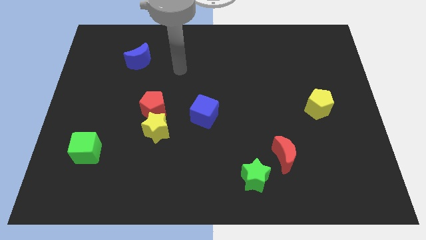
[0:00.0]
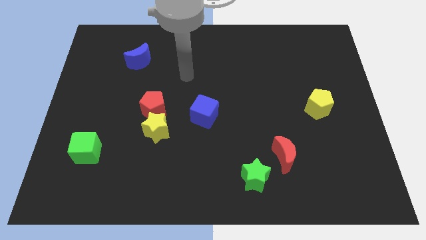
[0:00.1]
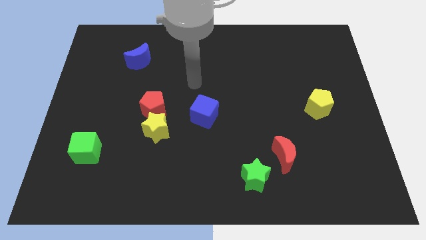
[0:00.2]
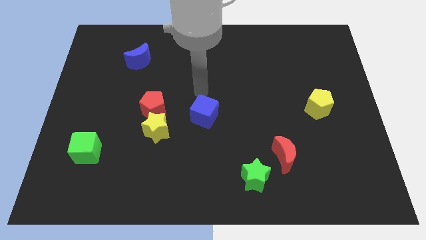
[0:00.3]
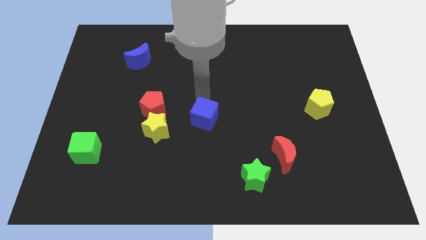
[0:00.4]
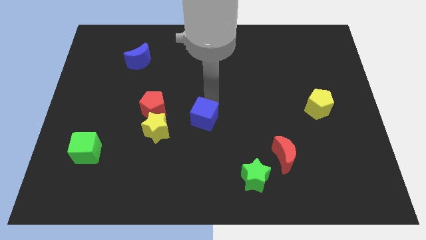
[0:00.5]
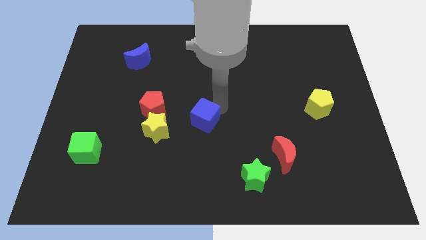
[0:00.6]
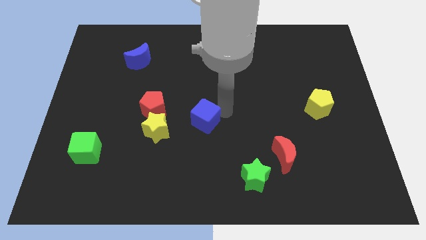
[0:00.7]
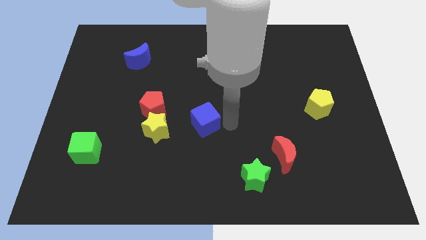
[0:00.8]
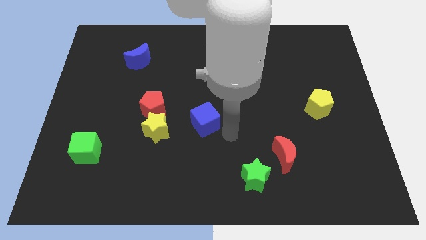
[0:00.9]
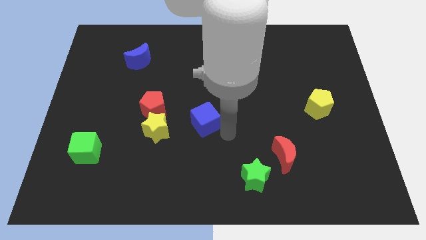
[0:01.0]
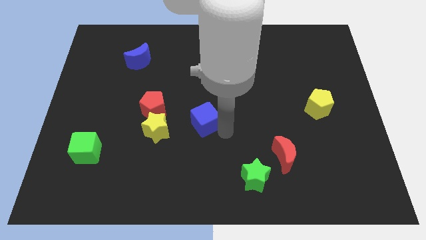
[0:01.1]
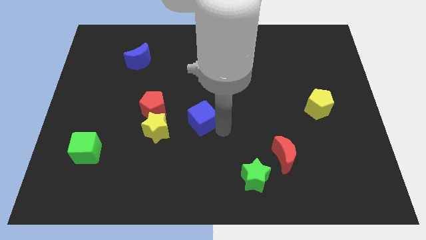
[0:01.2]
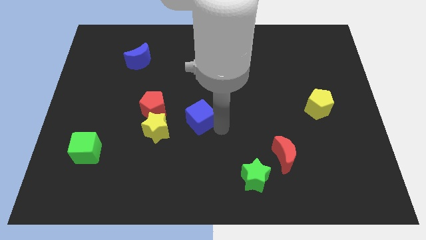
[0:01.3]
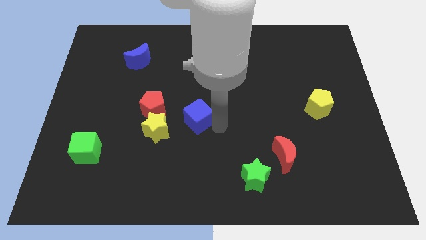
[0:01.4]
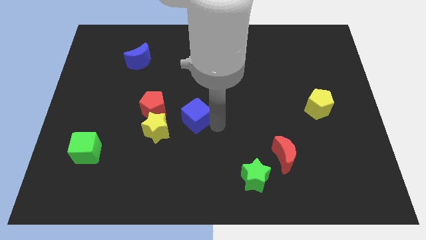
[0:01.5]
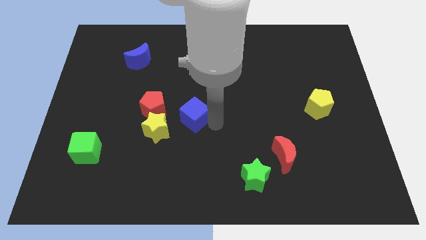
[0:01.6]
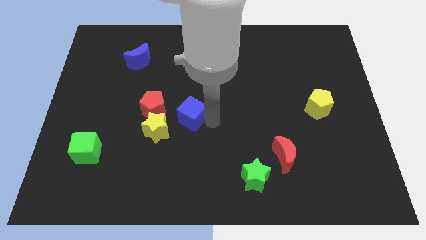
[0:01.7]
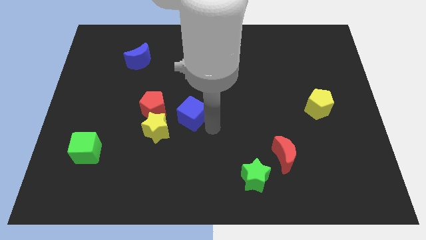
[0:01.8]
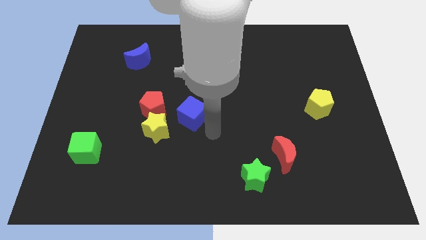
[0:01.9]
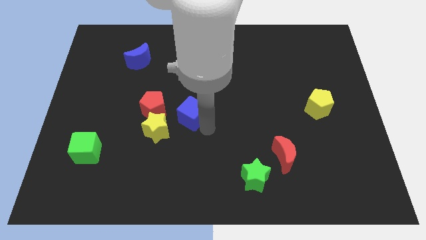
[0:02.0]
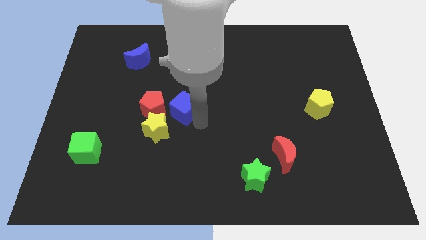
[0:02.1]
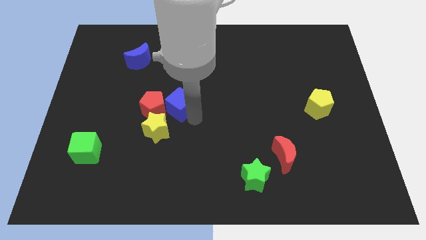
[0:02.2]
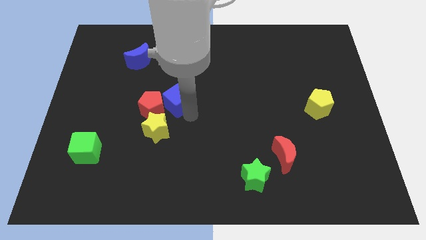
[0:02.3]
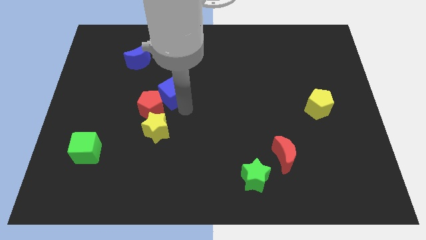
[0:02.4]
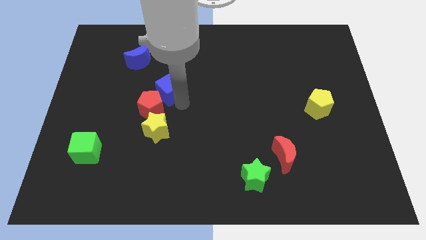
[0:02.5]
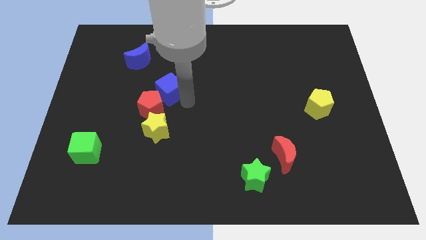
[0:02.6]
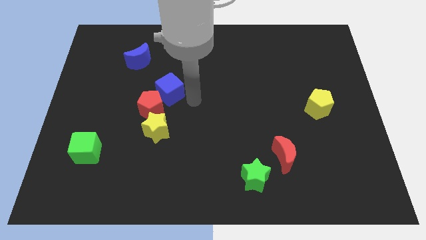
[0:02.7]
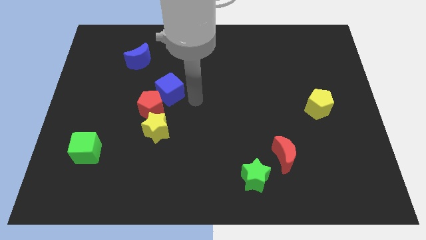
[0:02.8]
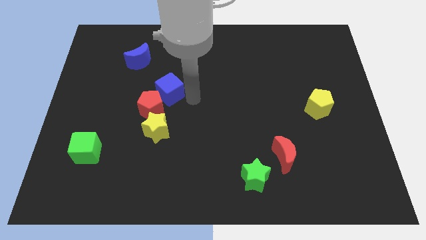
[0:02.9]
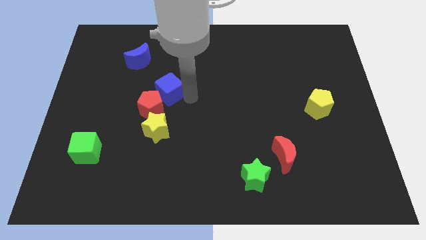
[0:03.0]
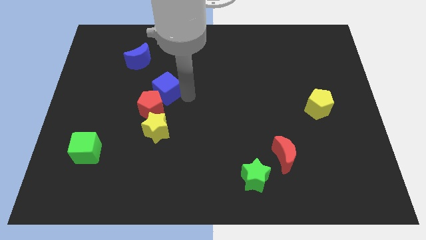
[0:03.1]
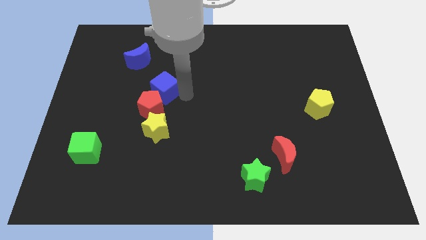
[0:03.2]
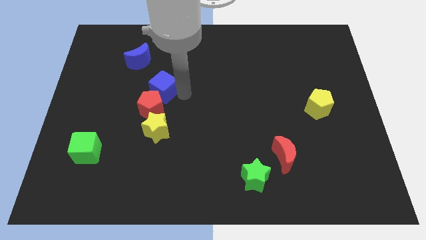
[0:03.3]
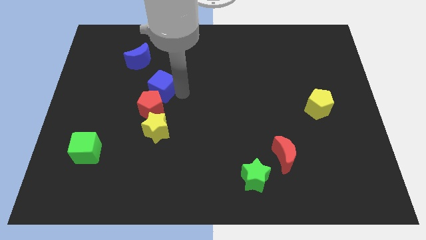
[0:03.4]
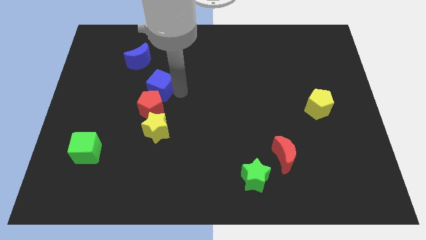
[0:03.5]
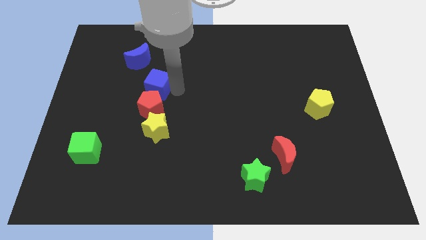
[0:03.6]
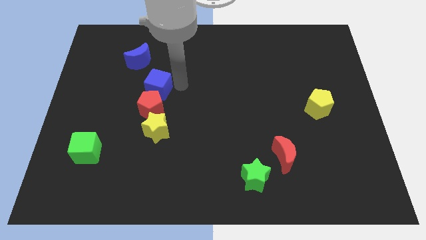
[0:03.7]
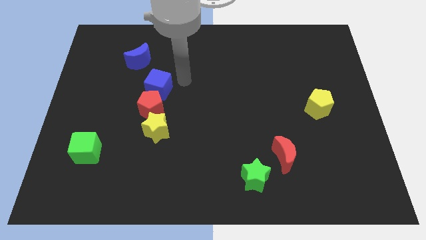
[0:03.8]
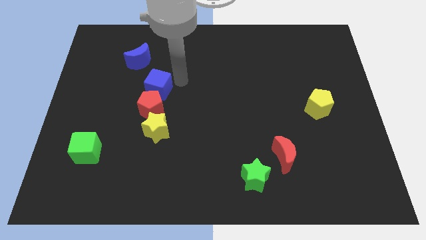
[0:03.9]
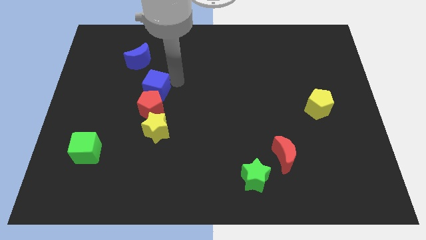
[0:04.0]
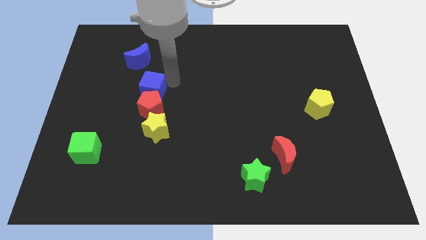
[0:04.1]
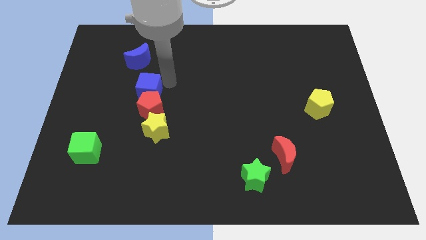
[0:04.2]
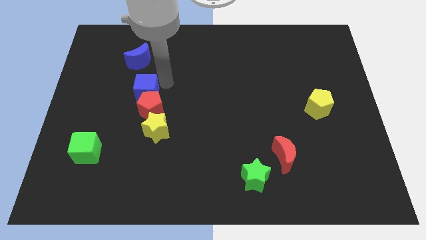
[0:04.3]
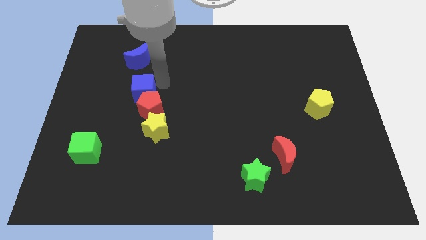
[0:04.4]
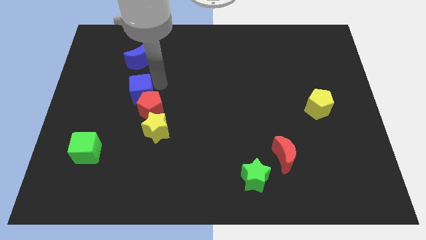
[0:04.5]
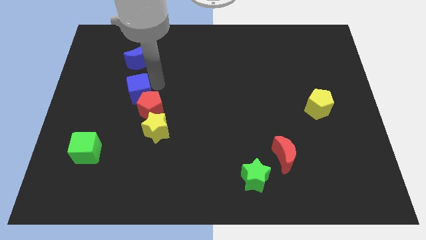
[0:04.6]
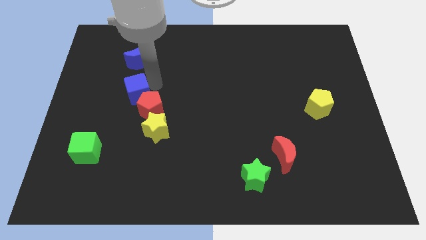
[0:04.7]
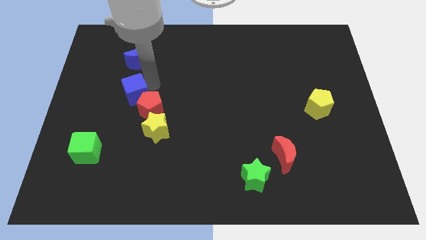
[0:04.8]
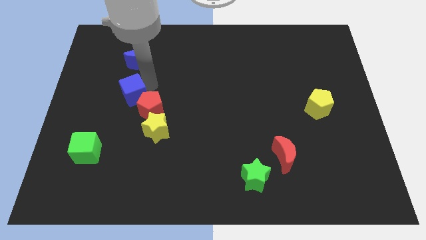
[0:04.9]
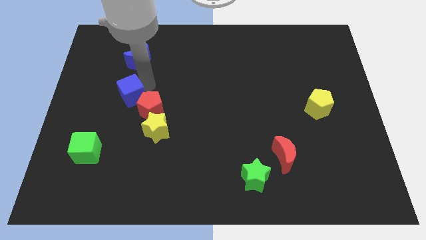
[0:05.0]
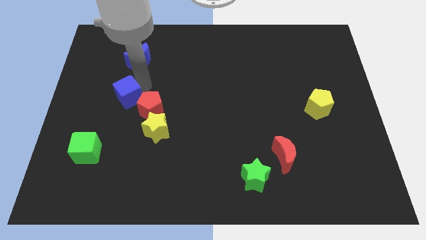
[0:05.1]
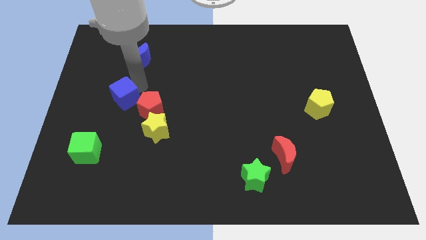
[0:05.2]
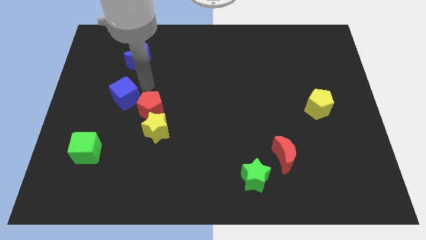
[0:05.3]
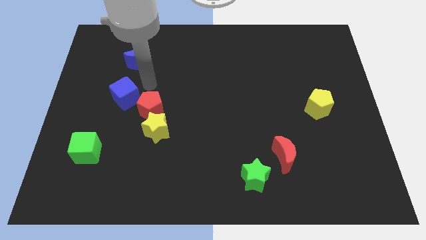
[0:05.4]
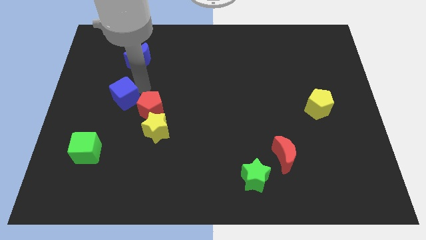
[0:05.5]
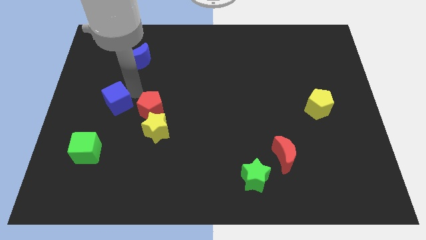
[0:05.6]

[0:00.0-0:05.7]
move the blue cube above the green cube

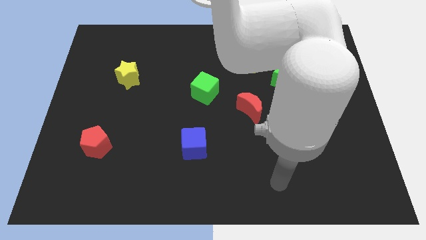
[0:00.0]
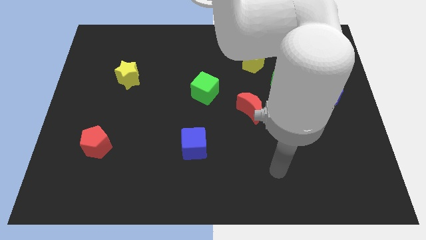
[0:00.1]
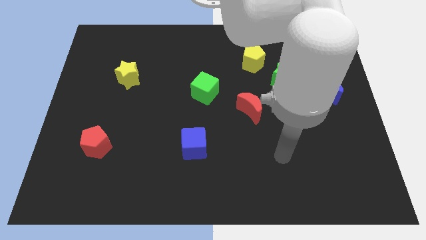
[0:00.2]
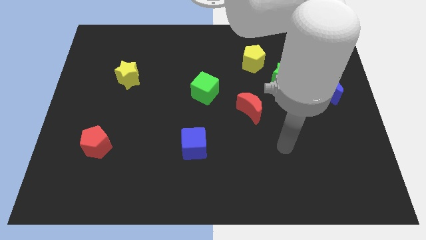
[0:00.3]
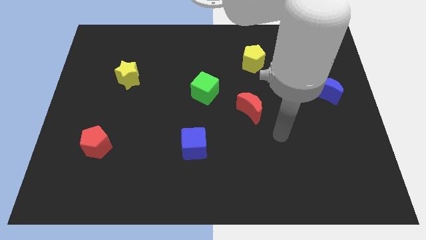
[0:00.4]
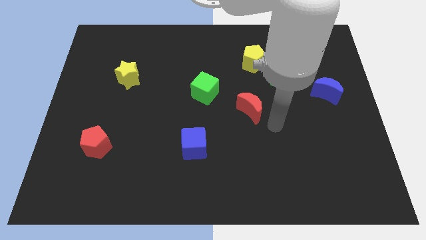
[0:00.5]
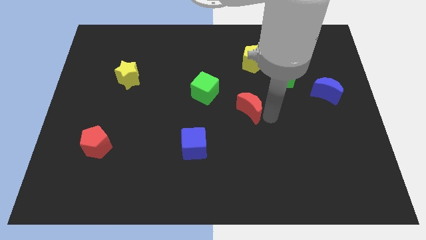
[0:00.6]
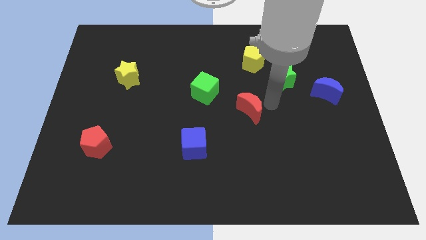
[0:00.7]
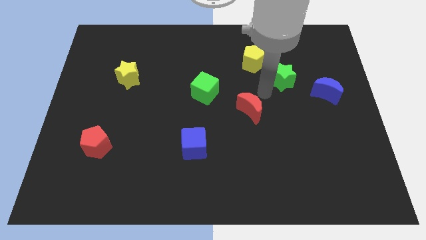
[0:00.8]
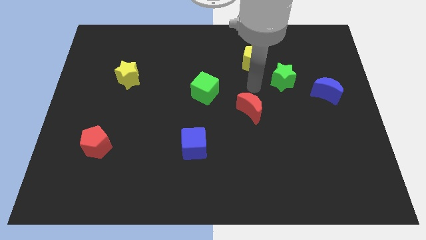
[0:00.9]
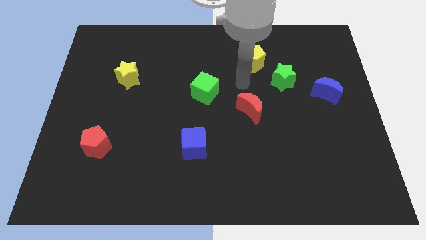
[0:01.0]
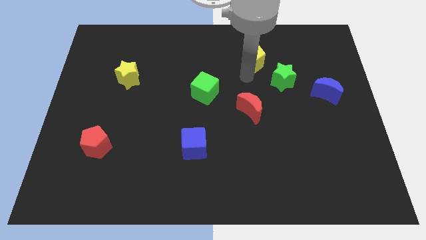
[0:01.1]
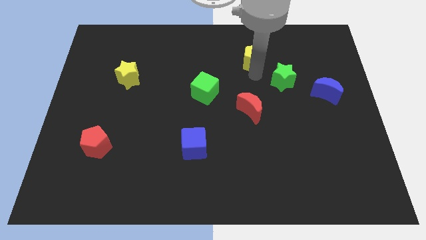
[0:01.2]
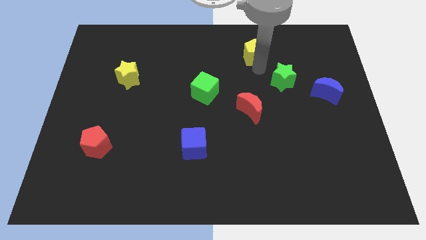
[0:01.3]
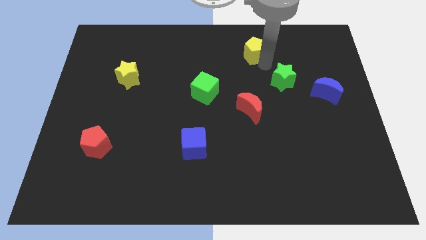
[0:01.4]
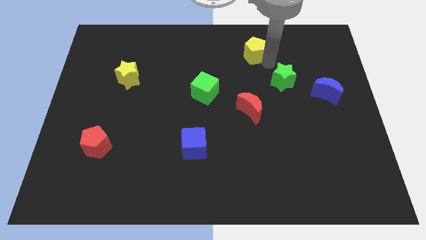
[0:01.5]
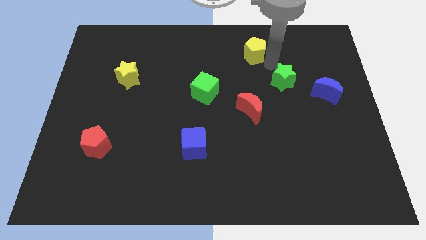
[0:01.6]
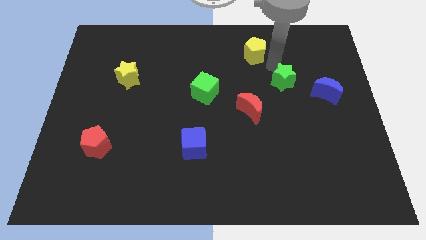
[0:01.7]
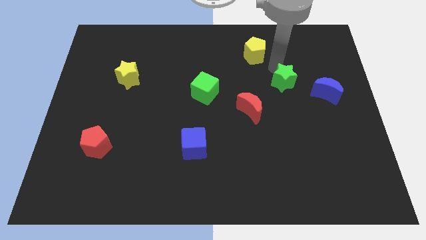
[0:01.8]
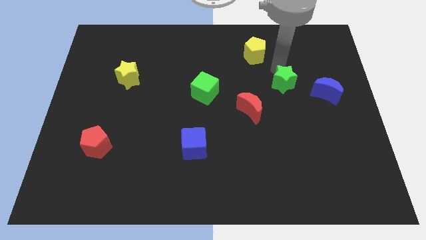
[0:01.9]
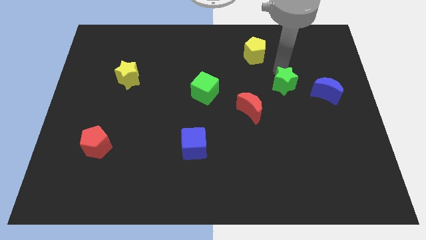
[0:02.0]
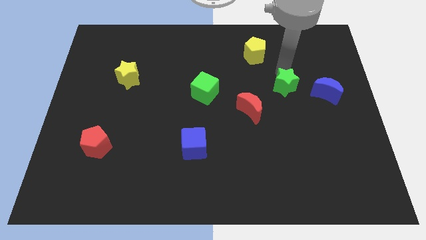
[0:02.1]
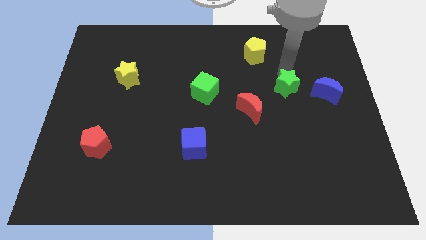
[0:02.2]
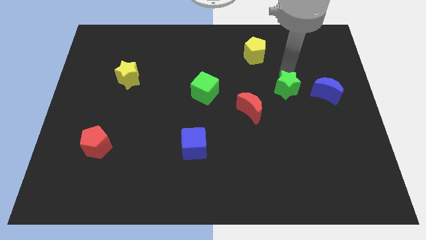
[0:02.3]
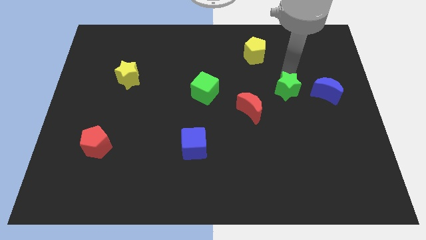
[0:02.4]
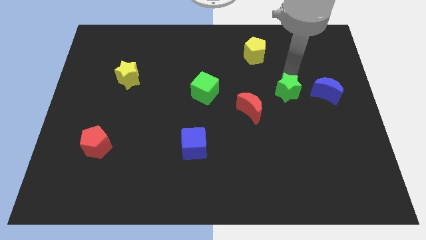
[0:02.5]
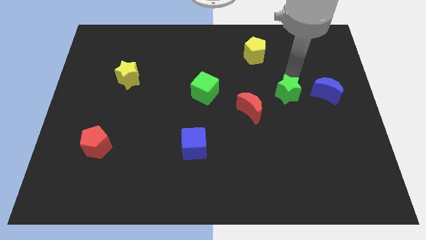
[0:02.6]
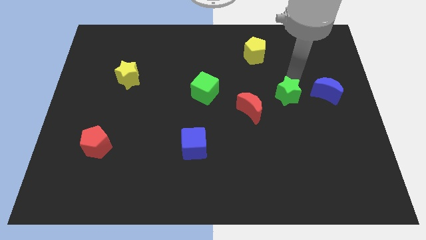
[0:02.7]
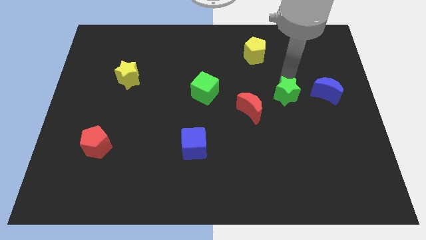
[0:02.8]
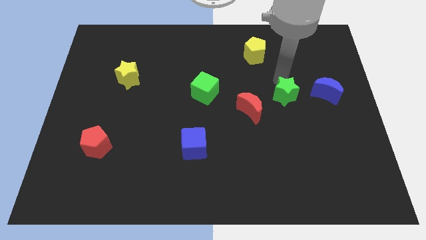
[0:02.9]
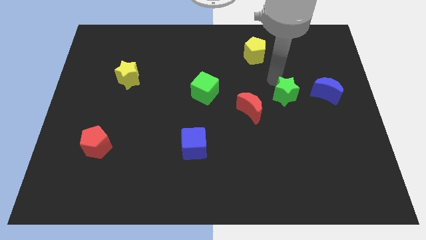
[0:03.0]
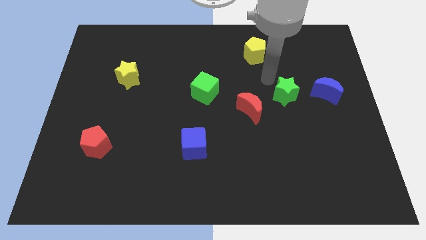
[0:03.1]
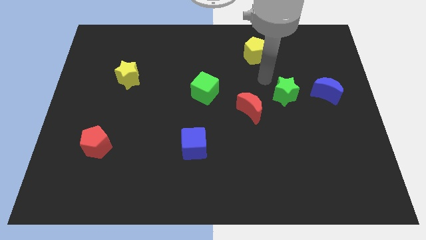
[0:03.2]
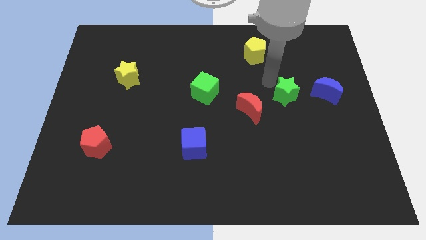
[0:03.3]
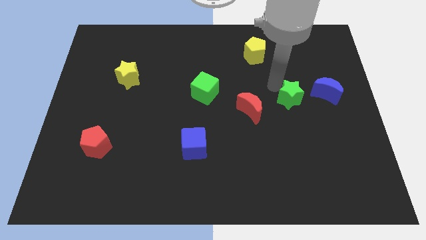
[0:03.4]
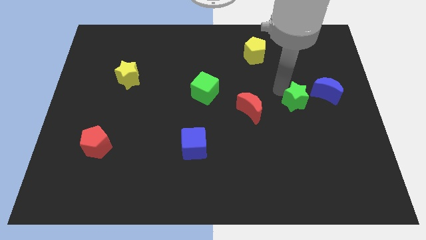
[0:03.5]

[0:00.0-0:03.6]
move the green star to the bottom left of the blue moon
